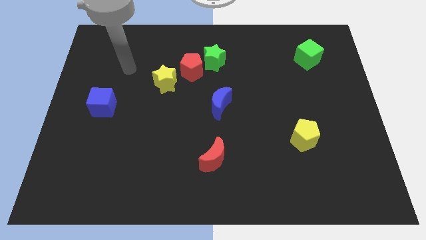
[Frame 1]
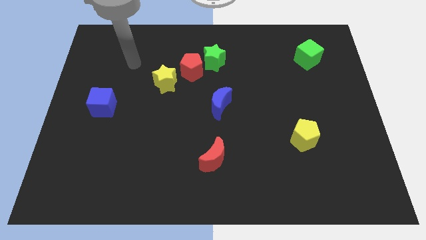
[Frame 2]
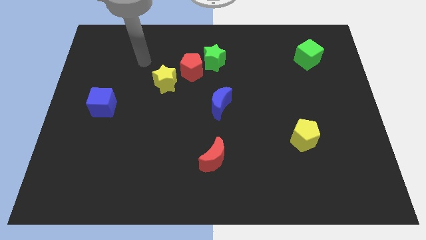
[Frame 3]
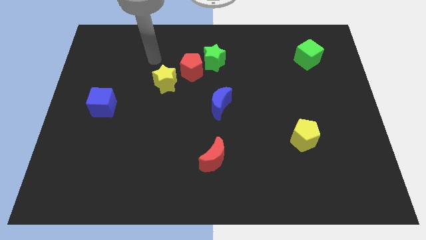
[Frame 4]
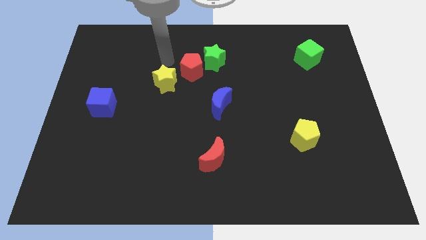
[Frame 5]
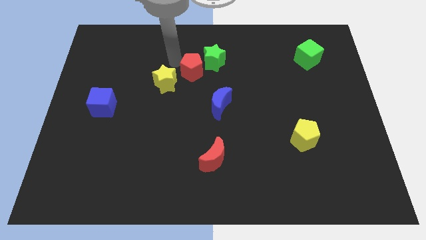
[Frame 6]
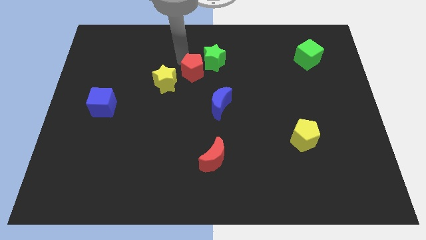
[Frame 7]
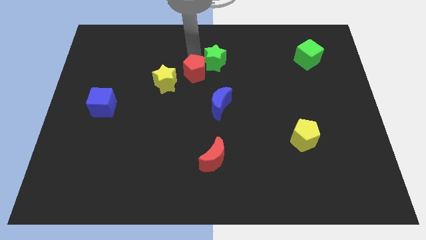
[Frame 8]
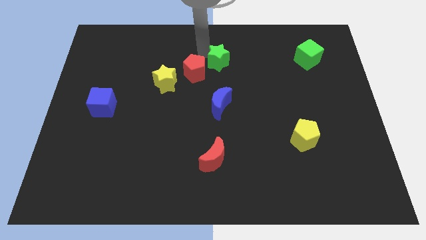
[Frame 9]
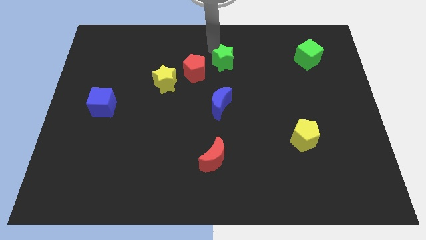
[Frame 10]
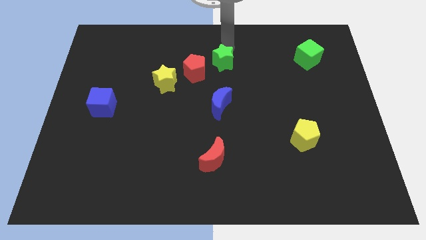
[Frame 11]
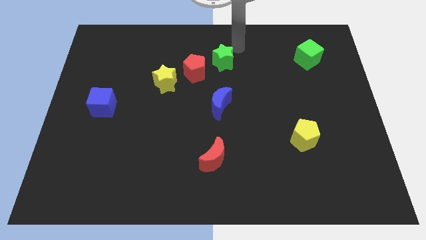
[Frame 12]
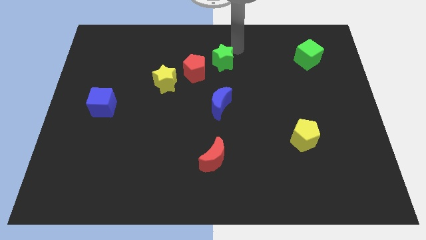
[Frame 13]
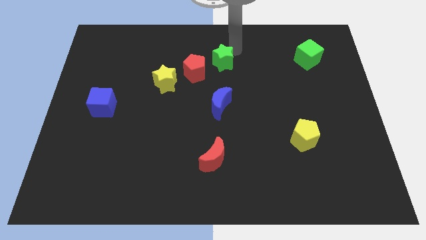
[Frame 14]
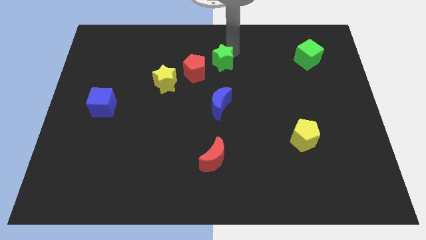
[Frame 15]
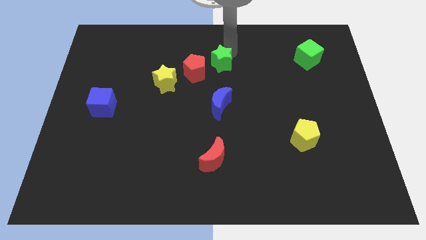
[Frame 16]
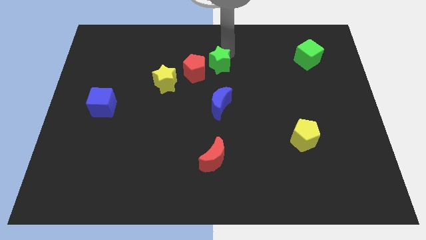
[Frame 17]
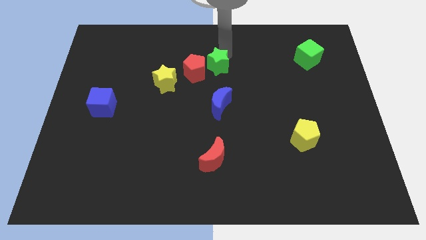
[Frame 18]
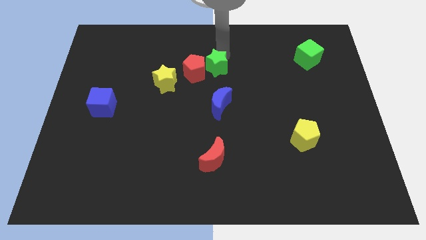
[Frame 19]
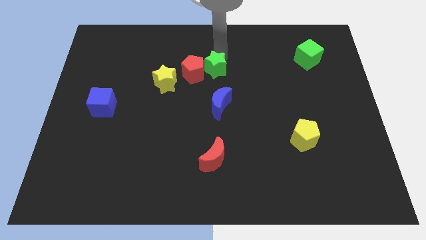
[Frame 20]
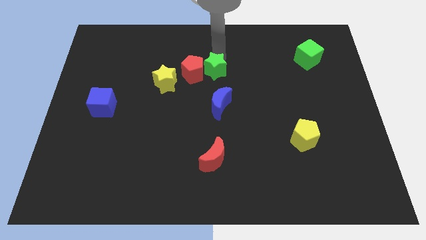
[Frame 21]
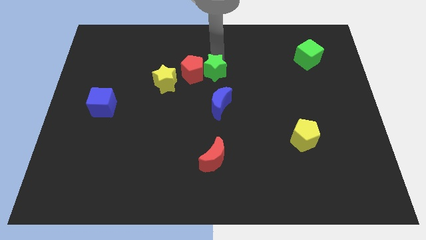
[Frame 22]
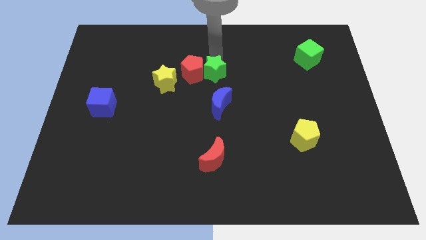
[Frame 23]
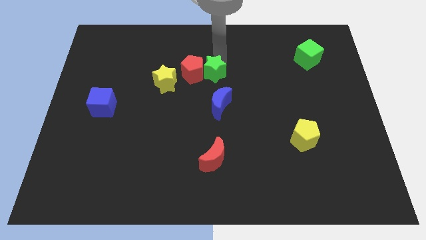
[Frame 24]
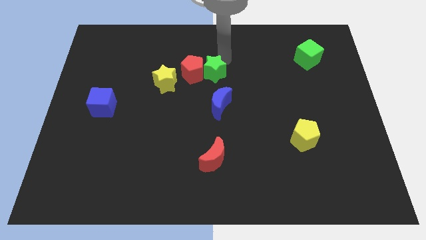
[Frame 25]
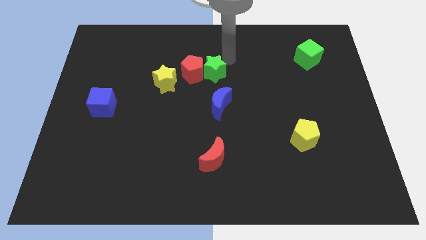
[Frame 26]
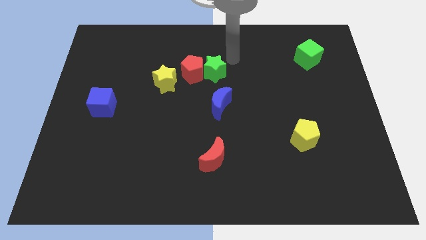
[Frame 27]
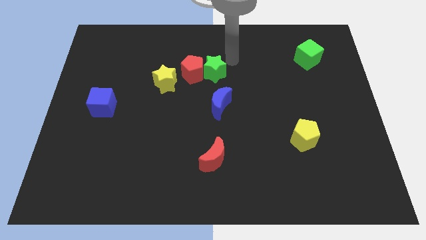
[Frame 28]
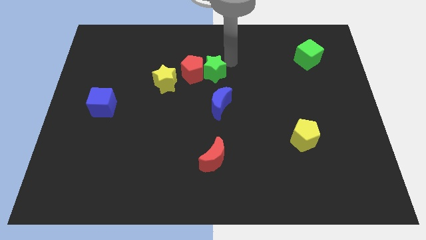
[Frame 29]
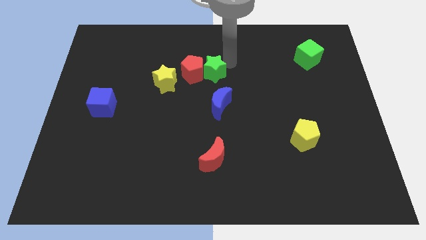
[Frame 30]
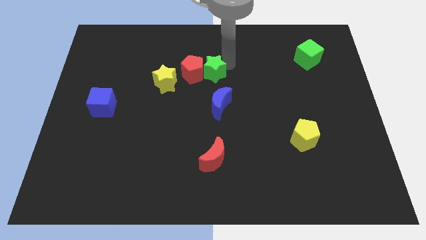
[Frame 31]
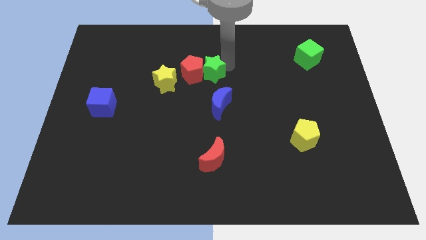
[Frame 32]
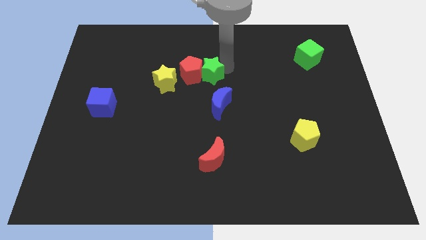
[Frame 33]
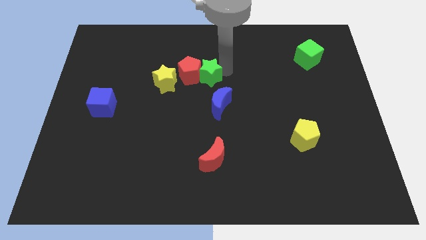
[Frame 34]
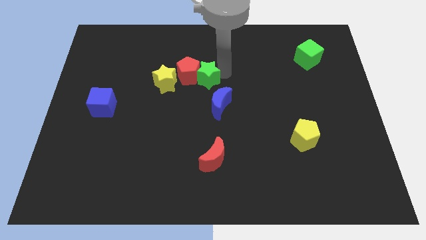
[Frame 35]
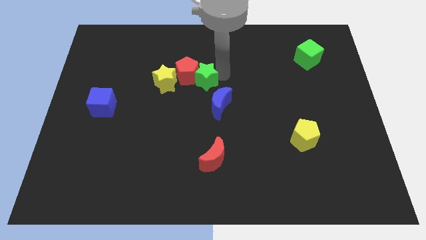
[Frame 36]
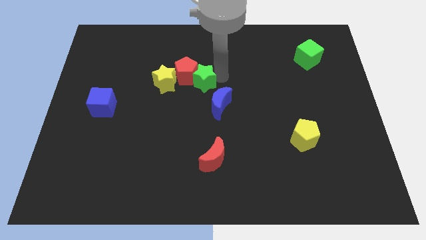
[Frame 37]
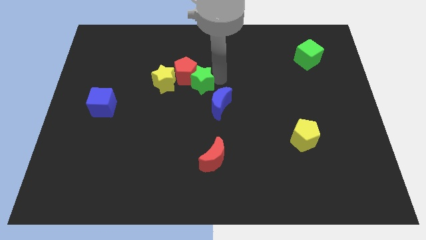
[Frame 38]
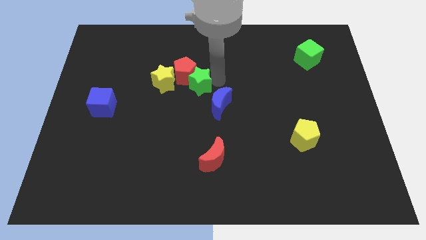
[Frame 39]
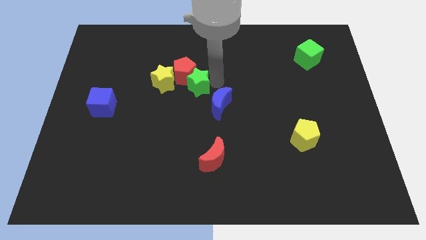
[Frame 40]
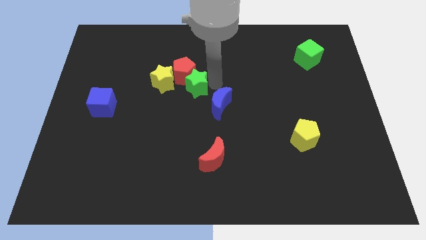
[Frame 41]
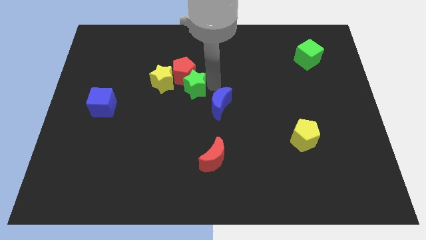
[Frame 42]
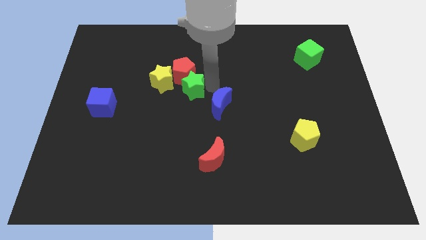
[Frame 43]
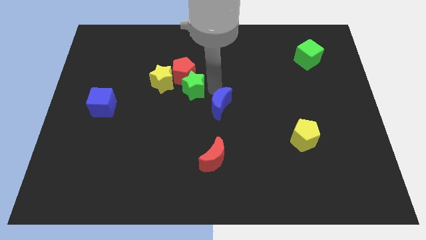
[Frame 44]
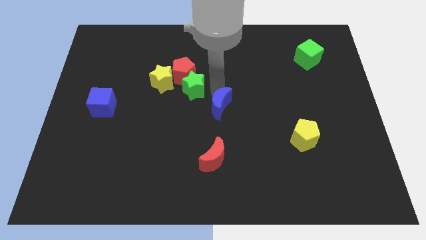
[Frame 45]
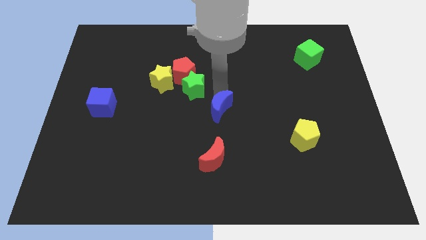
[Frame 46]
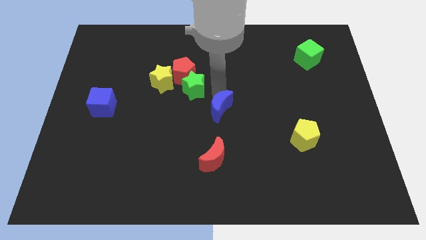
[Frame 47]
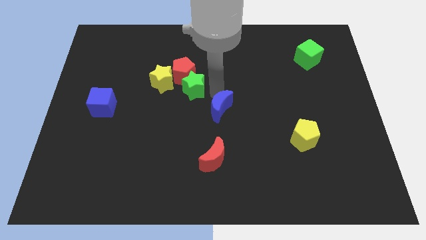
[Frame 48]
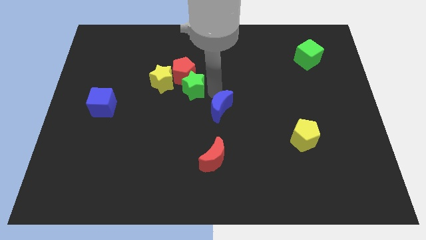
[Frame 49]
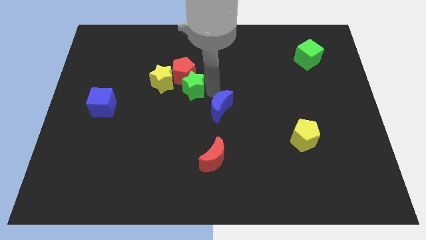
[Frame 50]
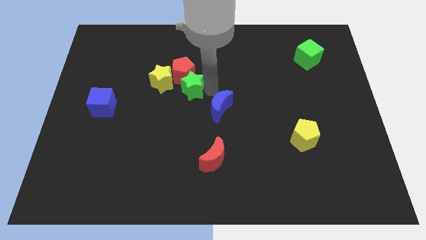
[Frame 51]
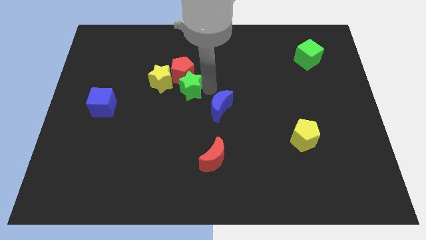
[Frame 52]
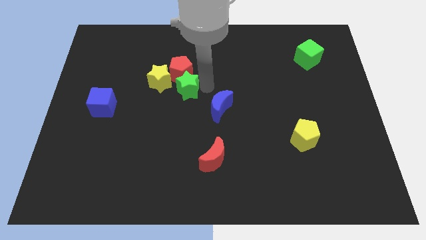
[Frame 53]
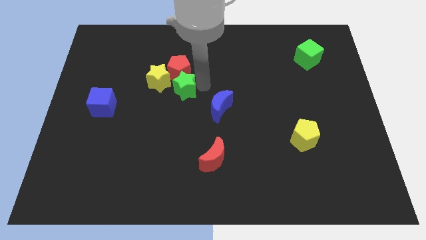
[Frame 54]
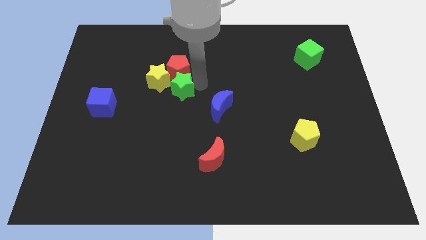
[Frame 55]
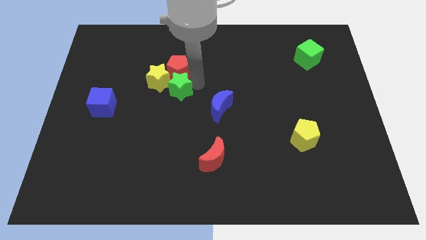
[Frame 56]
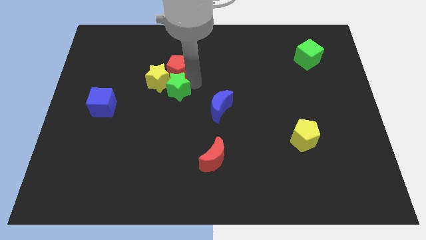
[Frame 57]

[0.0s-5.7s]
put the green star to the yellow star

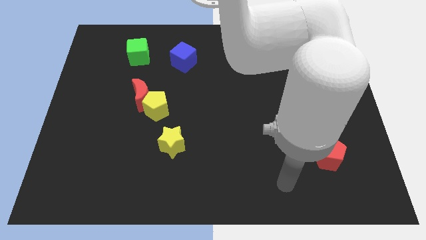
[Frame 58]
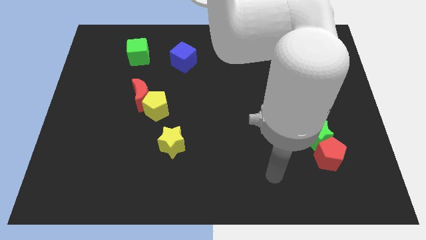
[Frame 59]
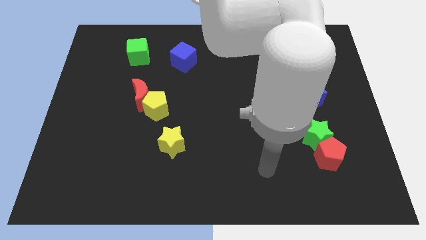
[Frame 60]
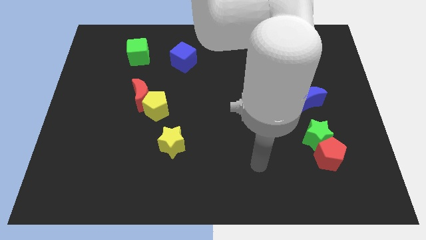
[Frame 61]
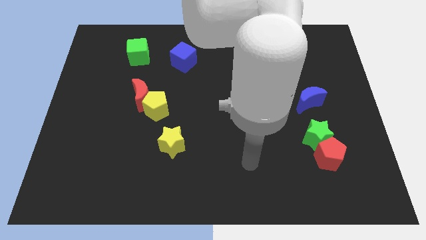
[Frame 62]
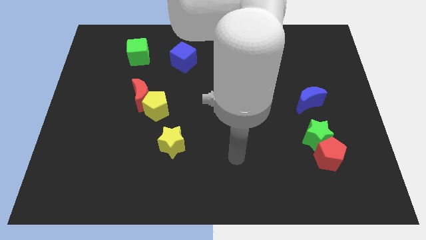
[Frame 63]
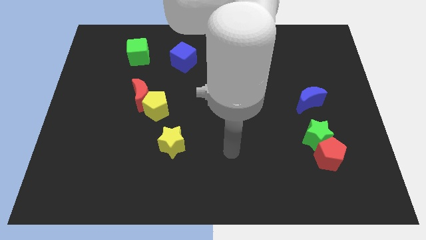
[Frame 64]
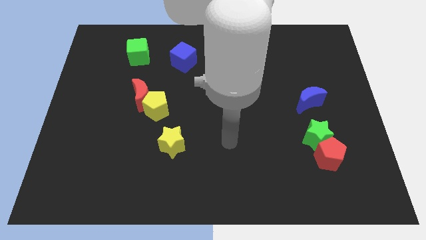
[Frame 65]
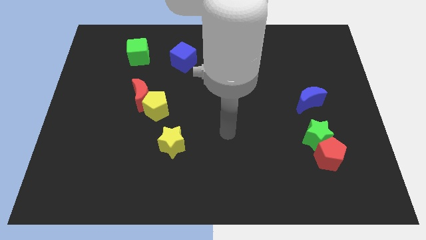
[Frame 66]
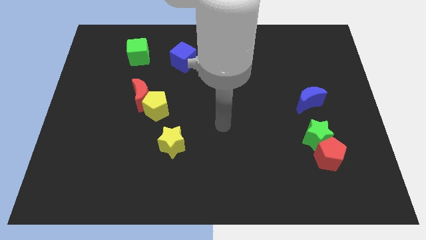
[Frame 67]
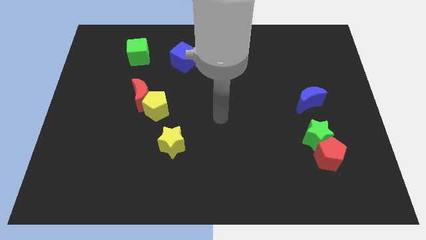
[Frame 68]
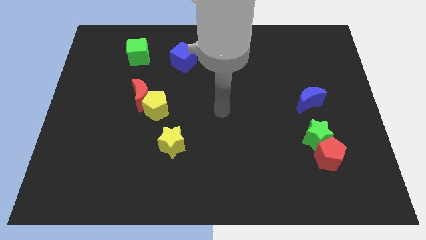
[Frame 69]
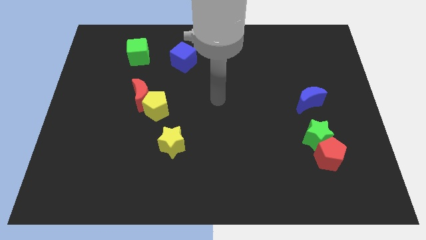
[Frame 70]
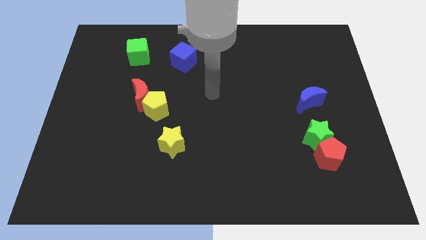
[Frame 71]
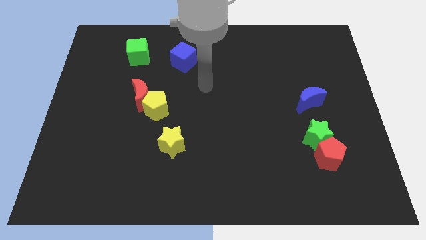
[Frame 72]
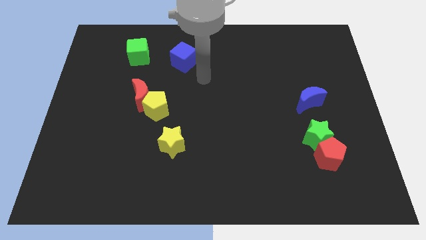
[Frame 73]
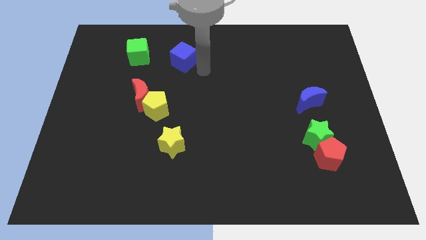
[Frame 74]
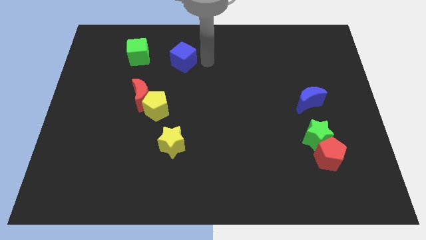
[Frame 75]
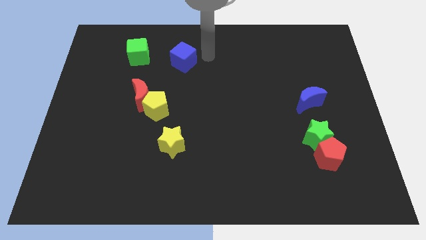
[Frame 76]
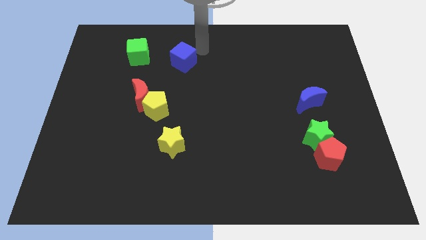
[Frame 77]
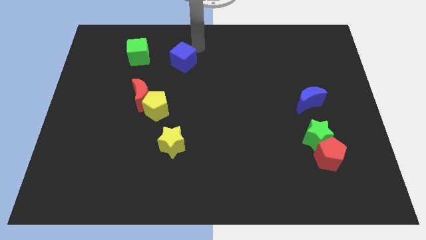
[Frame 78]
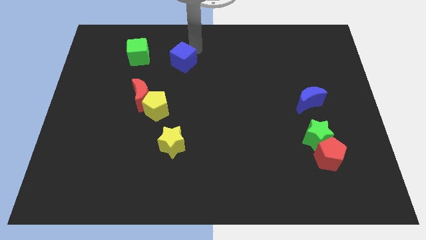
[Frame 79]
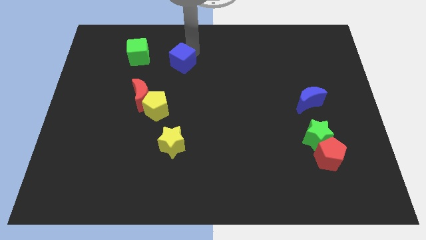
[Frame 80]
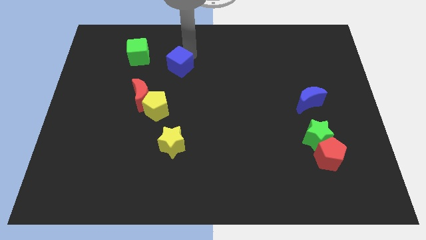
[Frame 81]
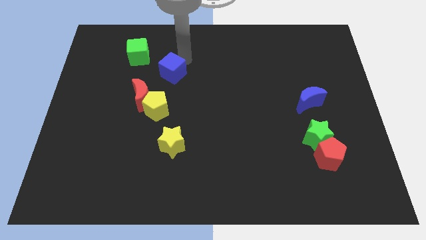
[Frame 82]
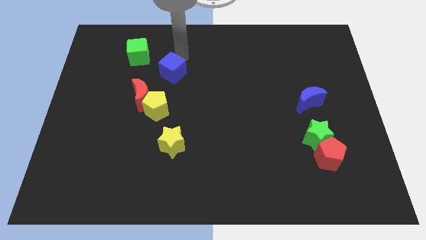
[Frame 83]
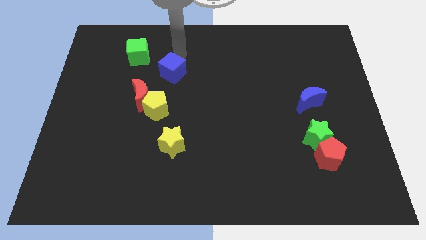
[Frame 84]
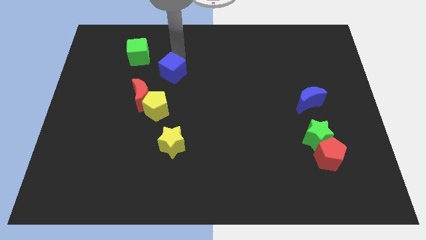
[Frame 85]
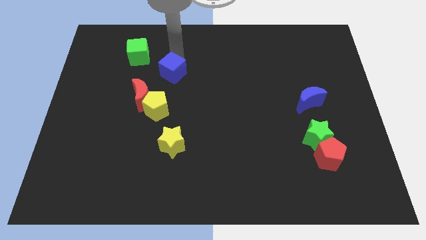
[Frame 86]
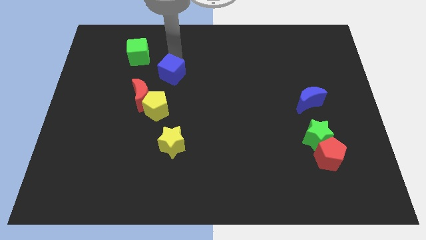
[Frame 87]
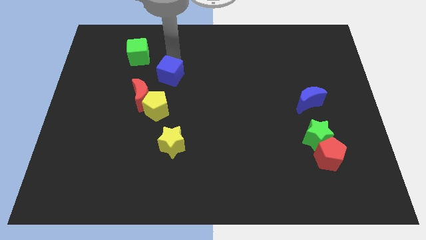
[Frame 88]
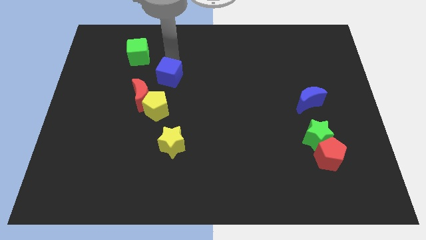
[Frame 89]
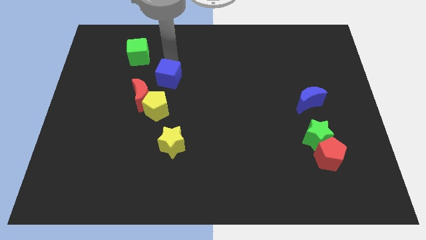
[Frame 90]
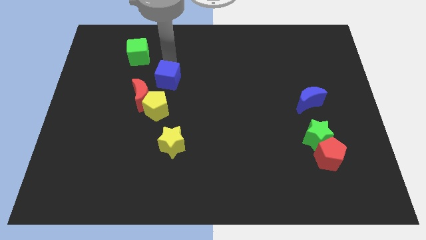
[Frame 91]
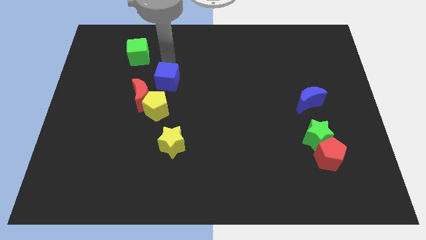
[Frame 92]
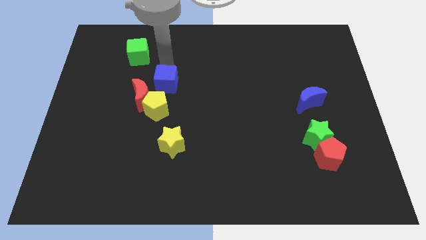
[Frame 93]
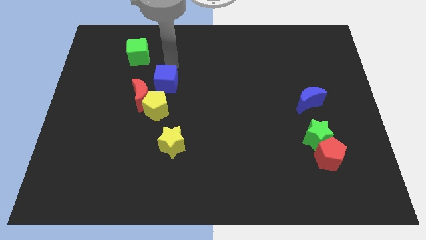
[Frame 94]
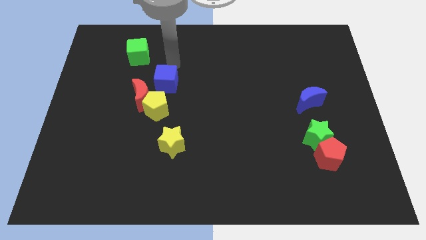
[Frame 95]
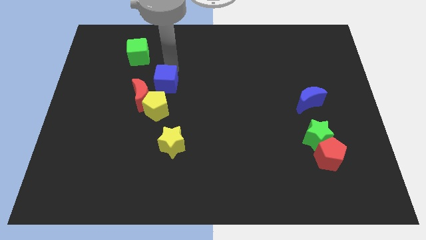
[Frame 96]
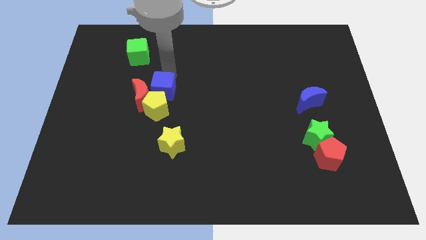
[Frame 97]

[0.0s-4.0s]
put the blue cube to the yellow pentagon
